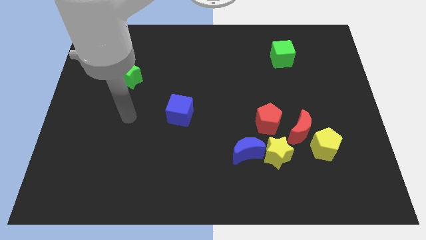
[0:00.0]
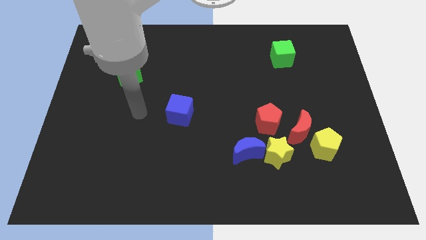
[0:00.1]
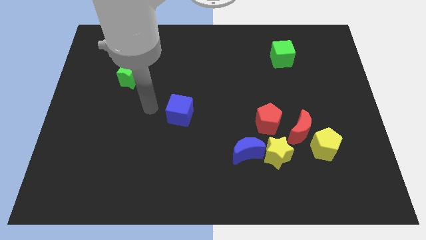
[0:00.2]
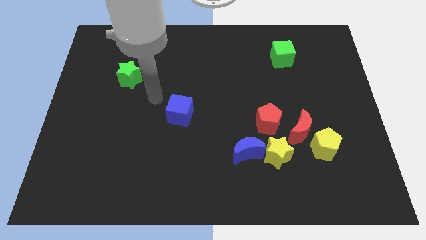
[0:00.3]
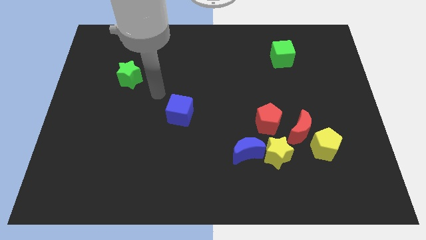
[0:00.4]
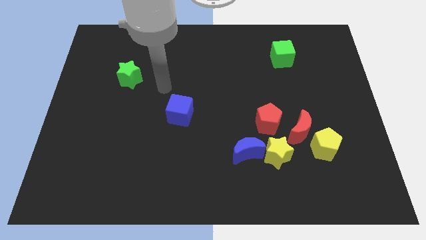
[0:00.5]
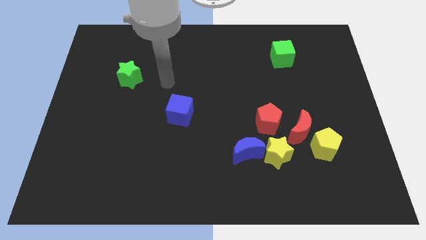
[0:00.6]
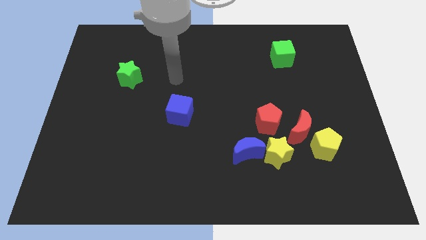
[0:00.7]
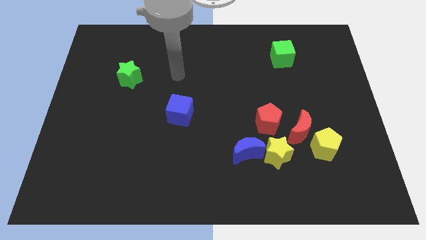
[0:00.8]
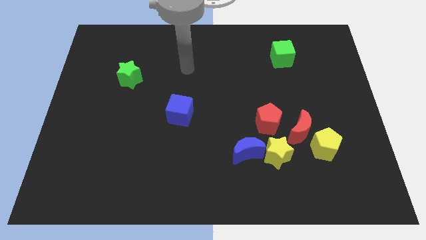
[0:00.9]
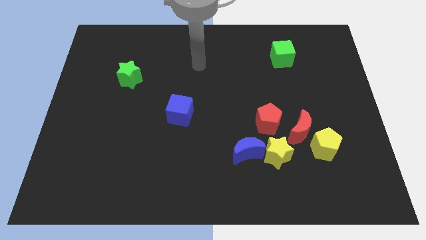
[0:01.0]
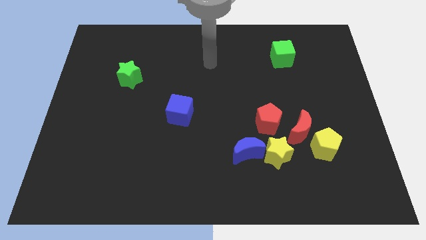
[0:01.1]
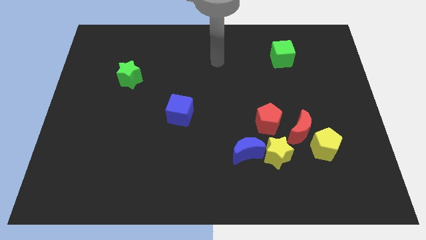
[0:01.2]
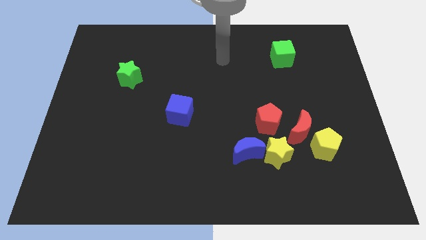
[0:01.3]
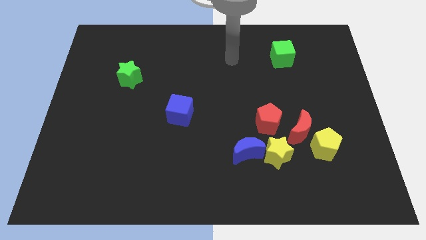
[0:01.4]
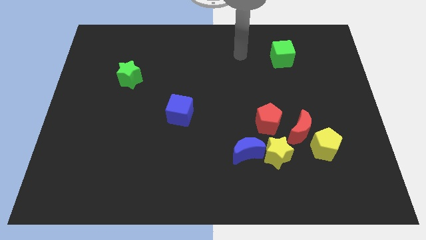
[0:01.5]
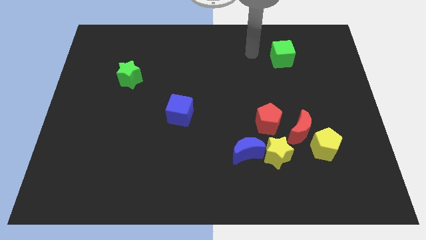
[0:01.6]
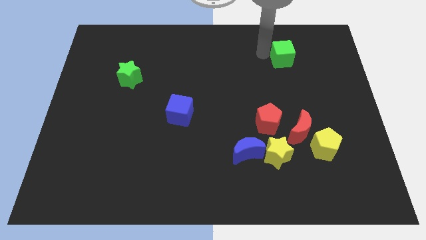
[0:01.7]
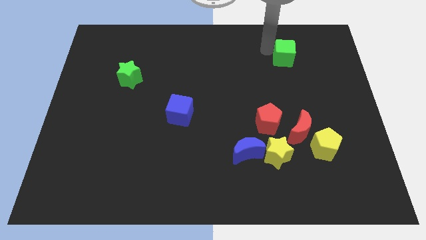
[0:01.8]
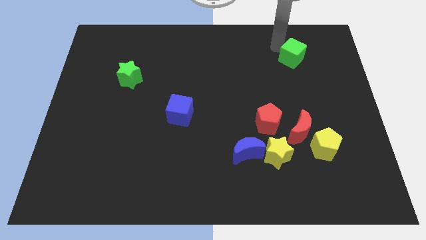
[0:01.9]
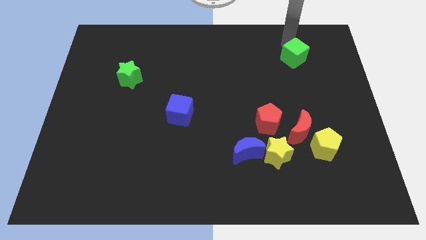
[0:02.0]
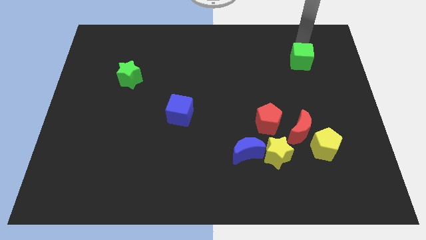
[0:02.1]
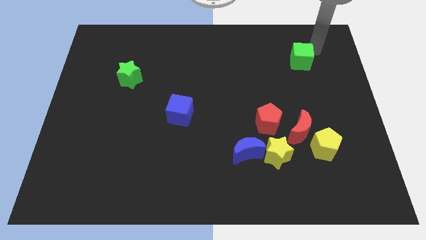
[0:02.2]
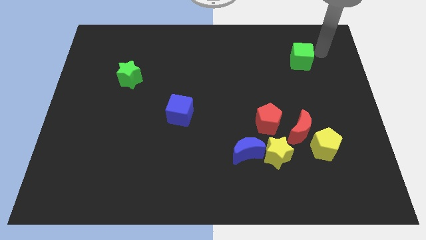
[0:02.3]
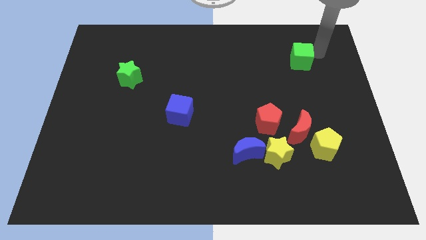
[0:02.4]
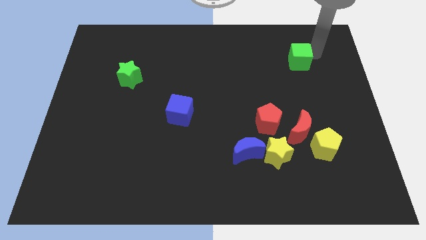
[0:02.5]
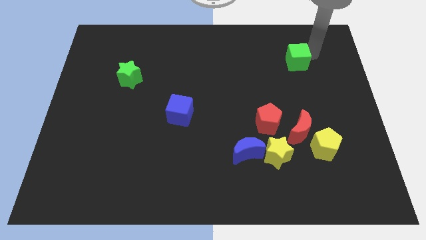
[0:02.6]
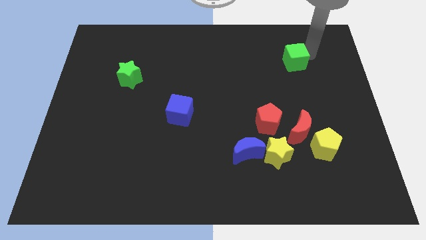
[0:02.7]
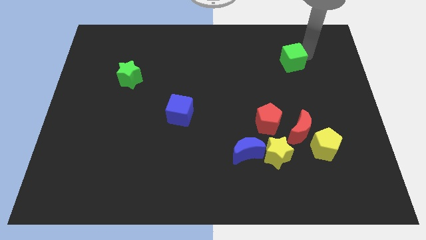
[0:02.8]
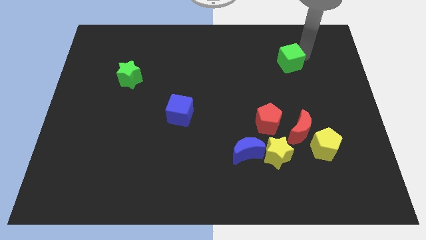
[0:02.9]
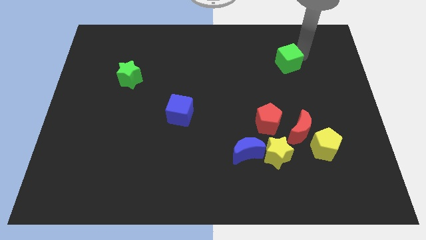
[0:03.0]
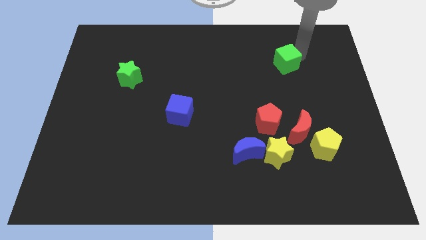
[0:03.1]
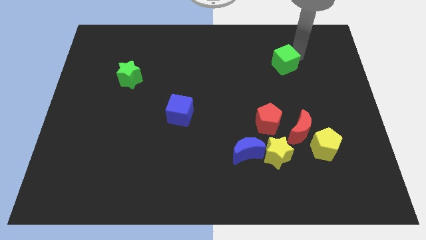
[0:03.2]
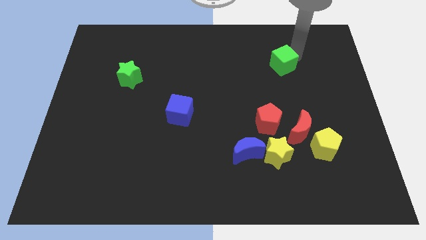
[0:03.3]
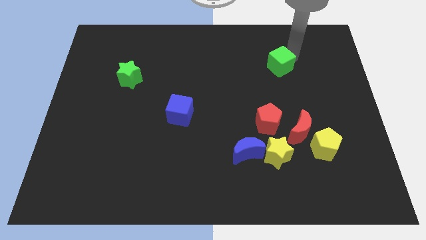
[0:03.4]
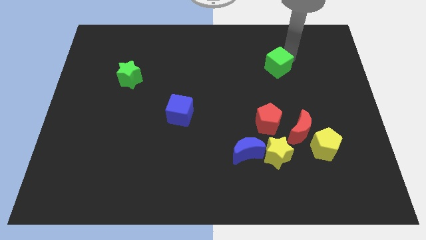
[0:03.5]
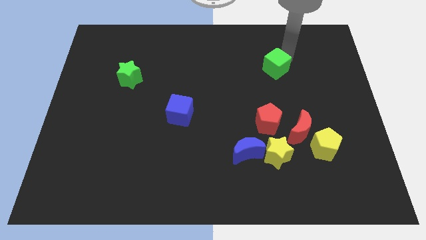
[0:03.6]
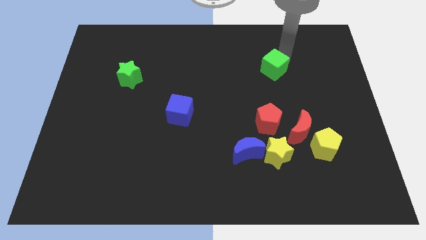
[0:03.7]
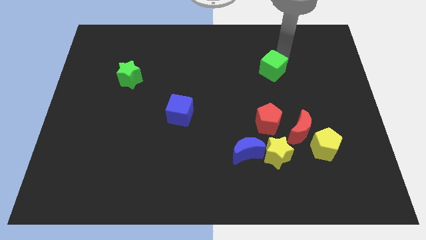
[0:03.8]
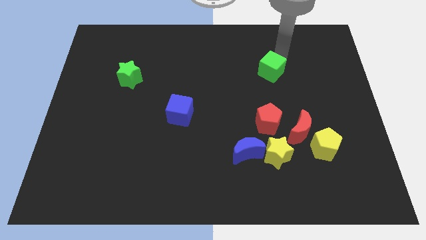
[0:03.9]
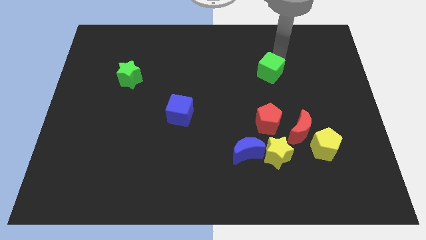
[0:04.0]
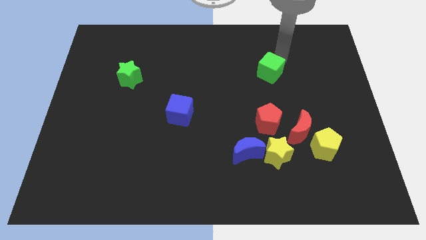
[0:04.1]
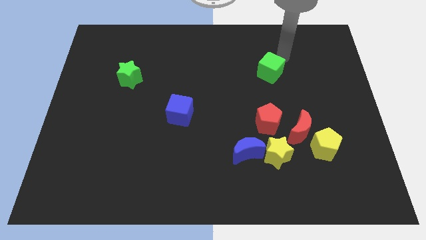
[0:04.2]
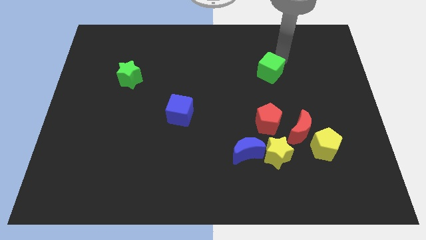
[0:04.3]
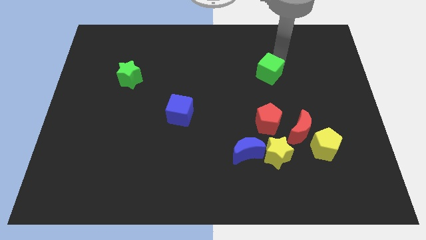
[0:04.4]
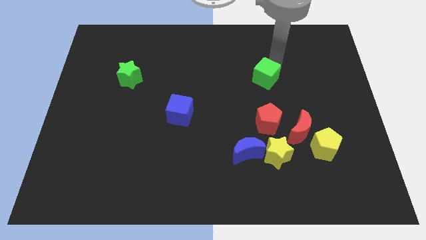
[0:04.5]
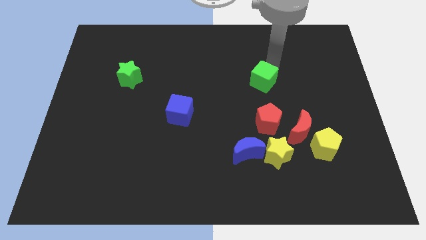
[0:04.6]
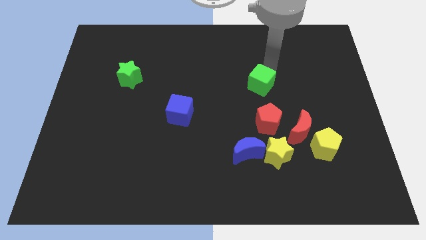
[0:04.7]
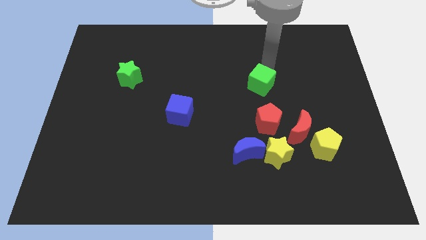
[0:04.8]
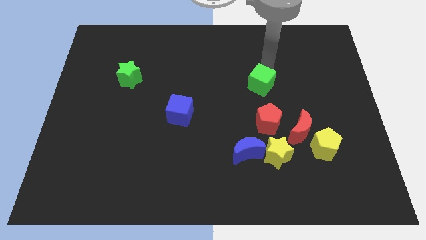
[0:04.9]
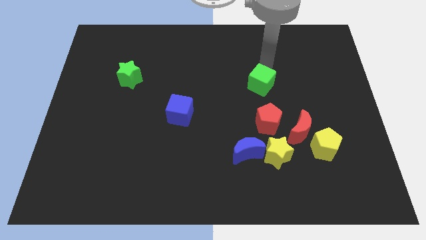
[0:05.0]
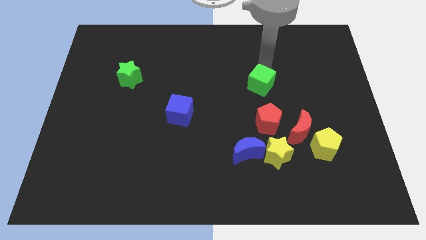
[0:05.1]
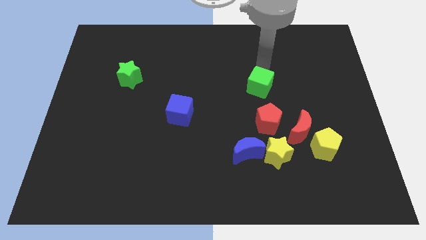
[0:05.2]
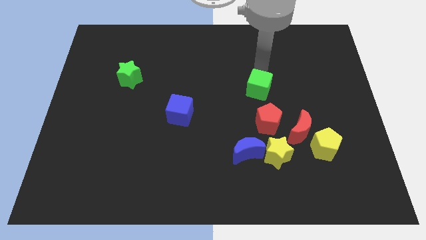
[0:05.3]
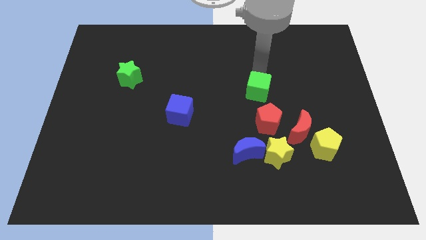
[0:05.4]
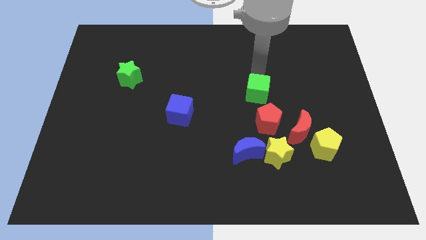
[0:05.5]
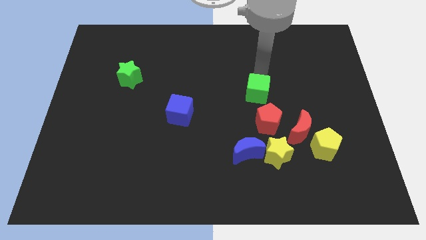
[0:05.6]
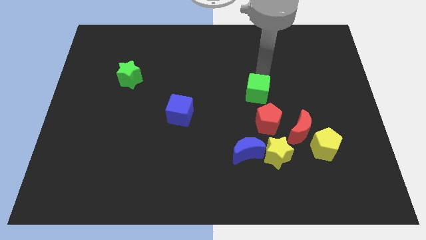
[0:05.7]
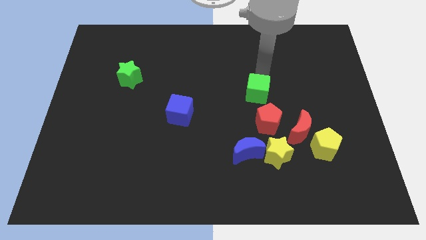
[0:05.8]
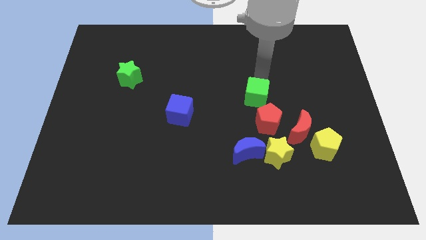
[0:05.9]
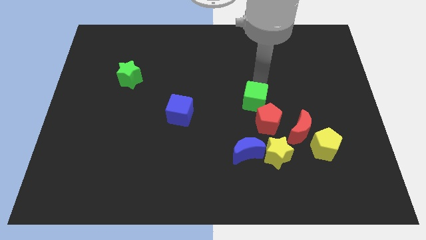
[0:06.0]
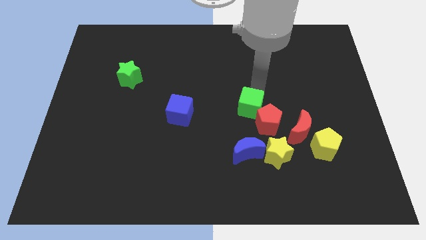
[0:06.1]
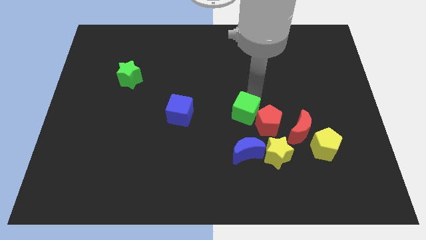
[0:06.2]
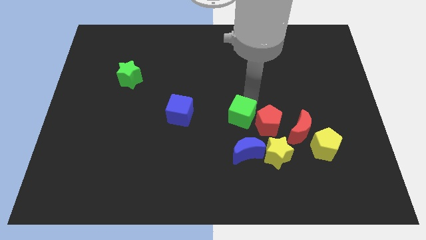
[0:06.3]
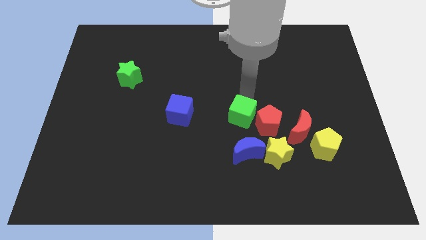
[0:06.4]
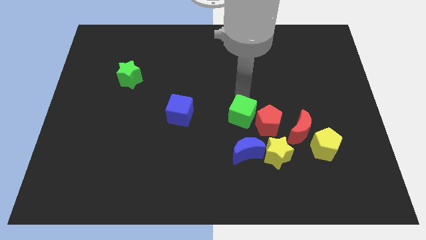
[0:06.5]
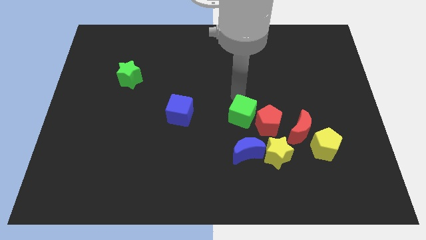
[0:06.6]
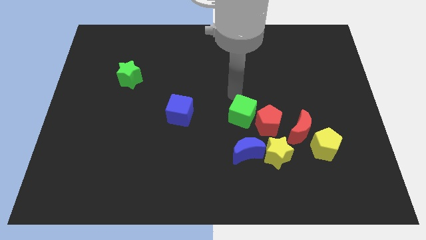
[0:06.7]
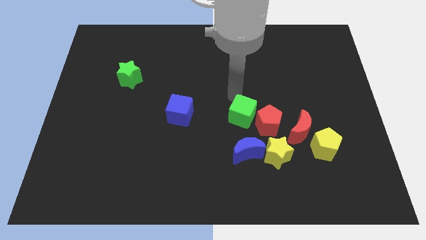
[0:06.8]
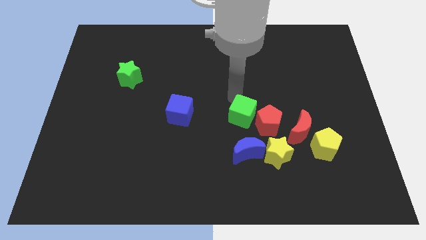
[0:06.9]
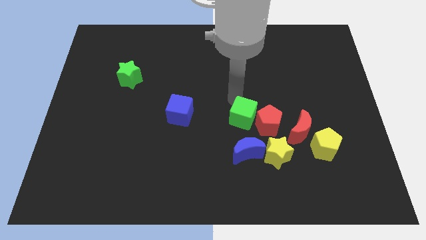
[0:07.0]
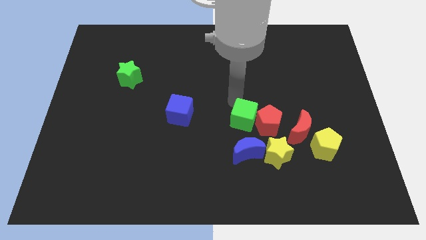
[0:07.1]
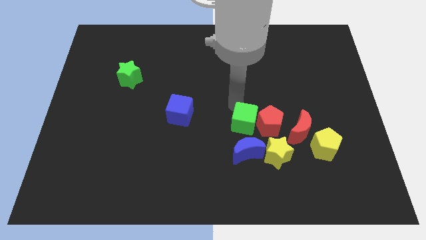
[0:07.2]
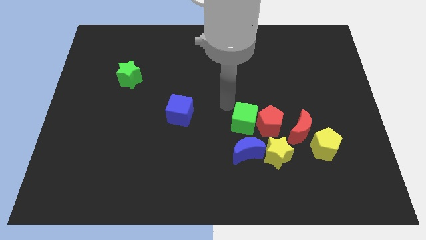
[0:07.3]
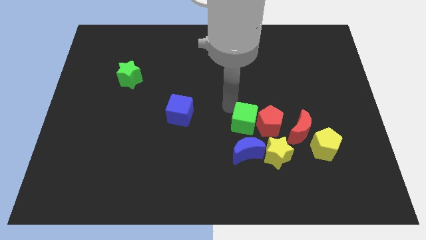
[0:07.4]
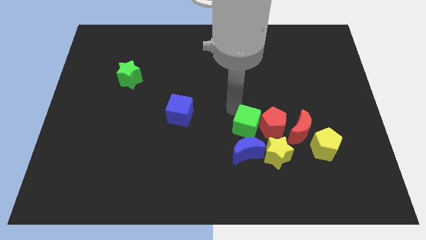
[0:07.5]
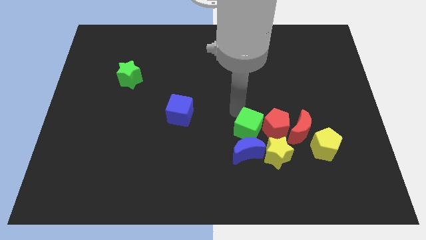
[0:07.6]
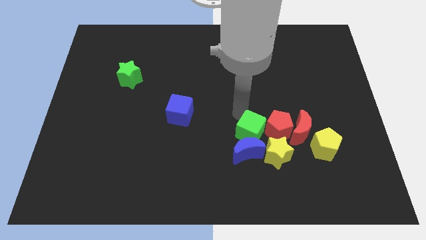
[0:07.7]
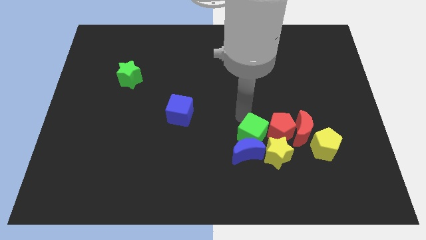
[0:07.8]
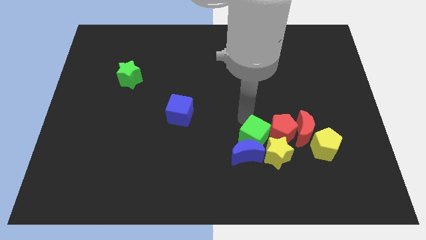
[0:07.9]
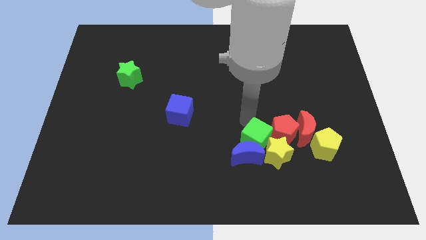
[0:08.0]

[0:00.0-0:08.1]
slide the green cube next to the yellow star
